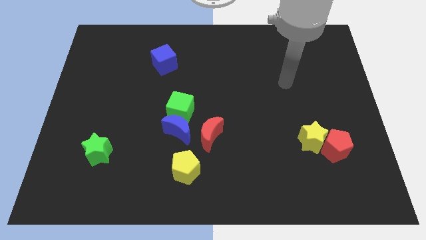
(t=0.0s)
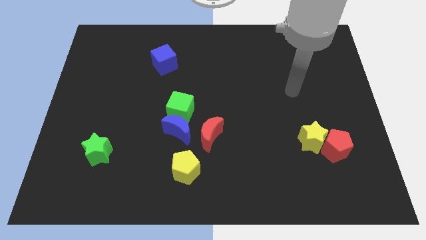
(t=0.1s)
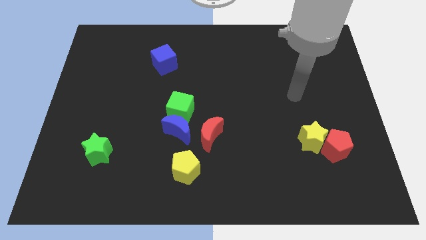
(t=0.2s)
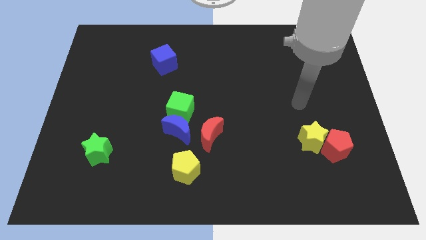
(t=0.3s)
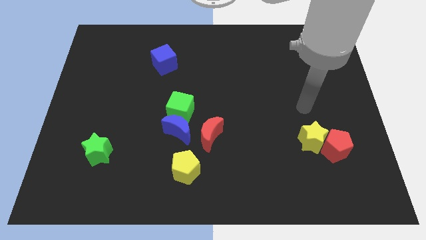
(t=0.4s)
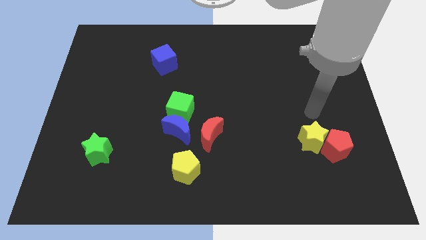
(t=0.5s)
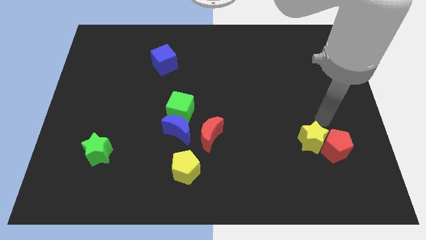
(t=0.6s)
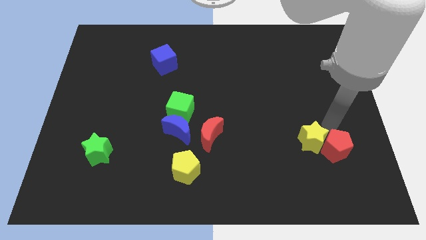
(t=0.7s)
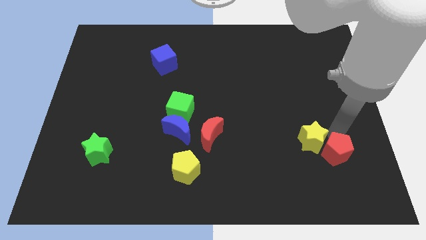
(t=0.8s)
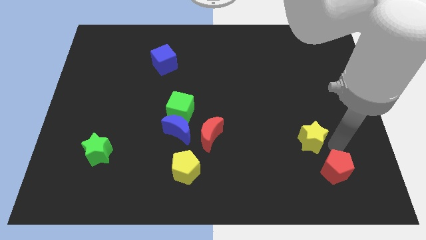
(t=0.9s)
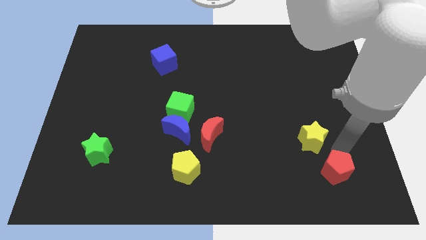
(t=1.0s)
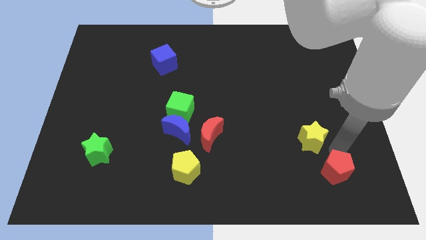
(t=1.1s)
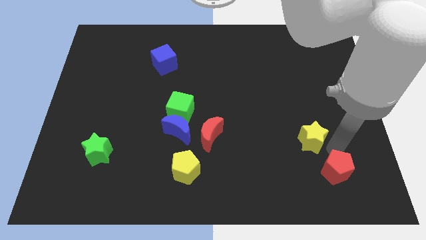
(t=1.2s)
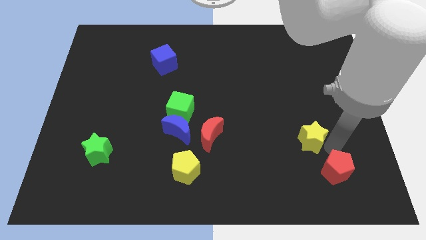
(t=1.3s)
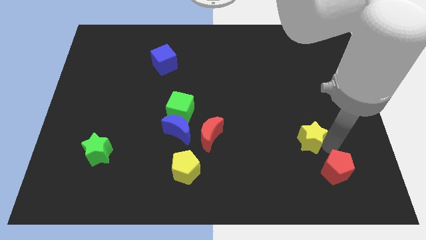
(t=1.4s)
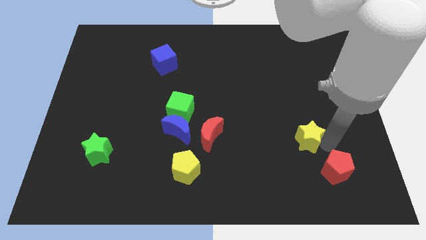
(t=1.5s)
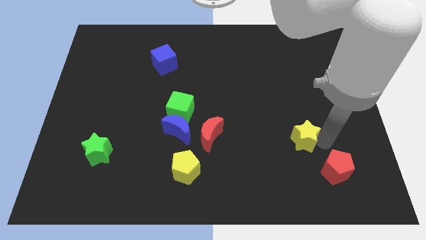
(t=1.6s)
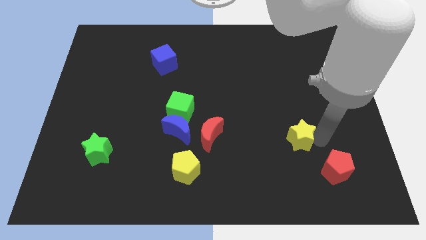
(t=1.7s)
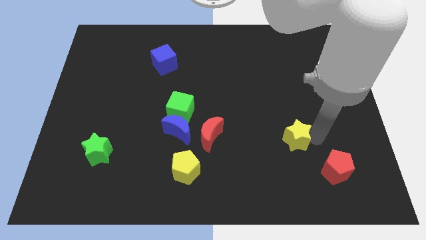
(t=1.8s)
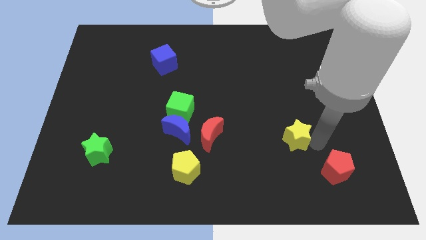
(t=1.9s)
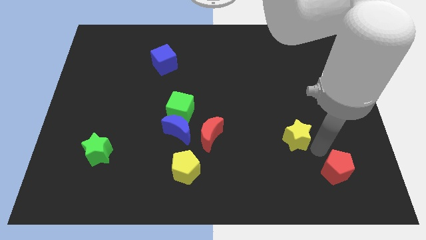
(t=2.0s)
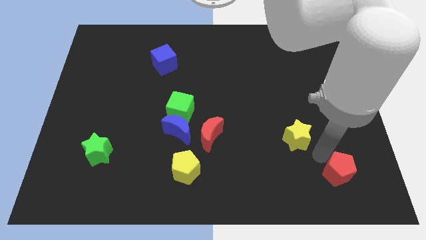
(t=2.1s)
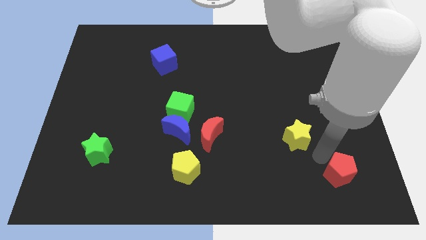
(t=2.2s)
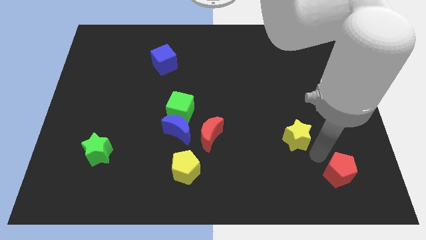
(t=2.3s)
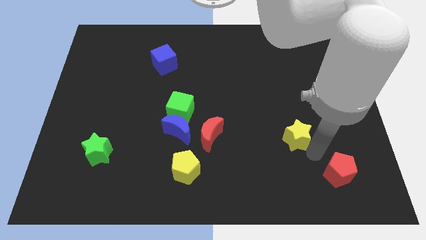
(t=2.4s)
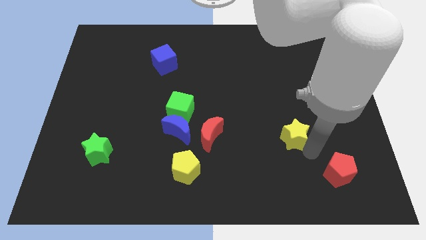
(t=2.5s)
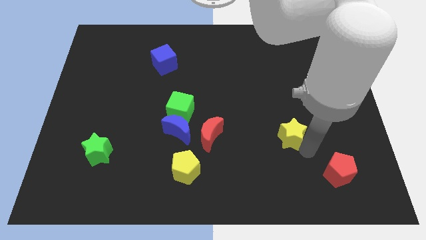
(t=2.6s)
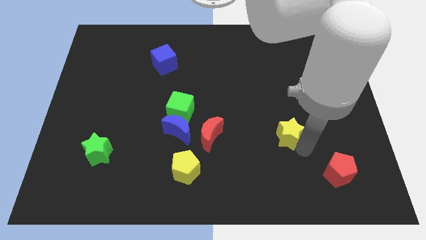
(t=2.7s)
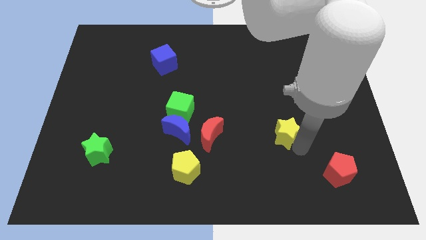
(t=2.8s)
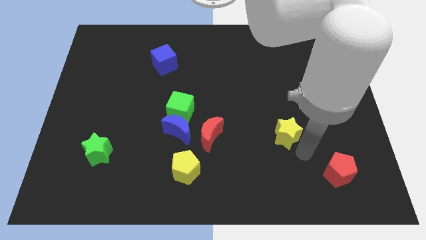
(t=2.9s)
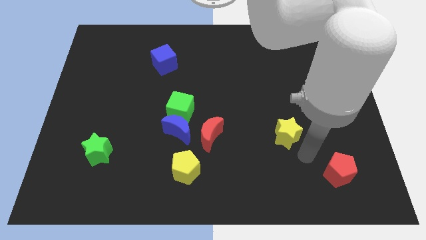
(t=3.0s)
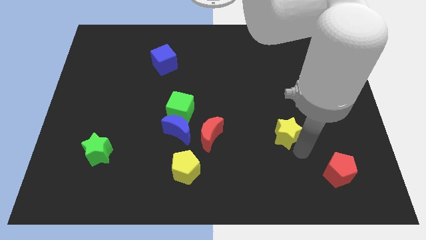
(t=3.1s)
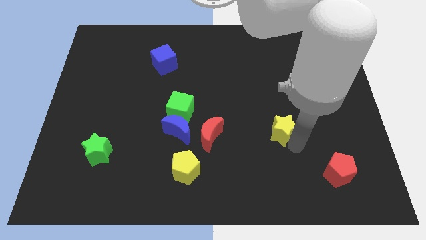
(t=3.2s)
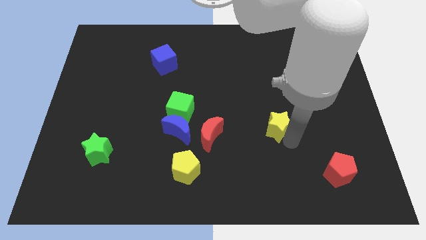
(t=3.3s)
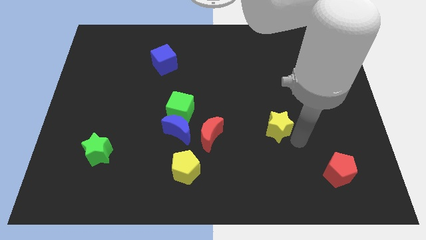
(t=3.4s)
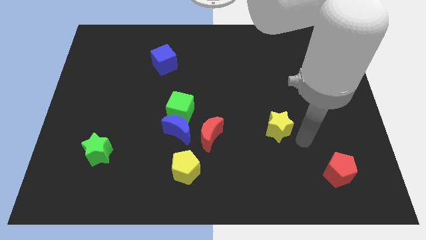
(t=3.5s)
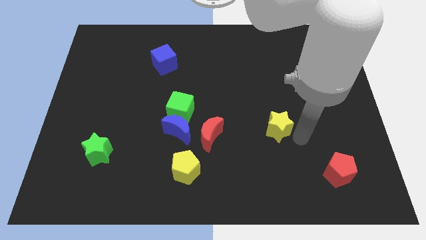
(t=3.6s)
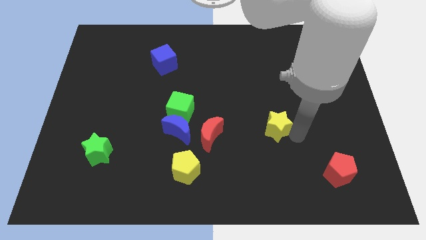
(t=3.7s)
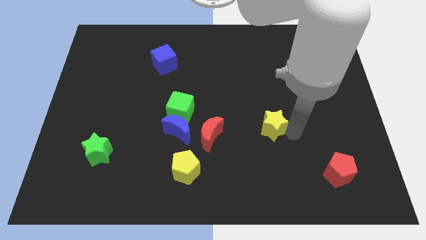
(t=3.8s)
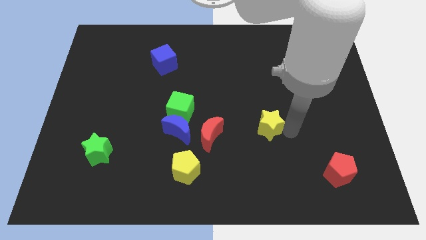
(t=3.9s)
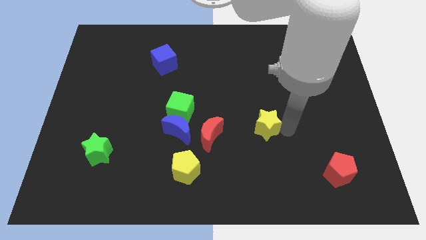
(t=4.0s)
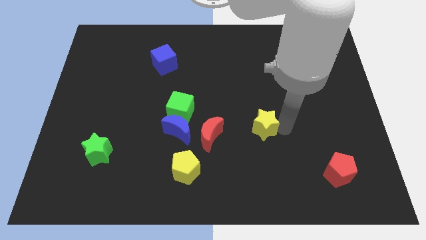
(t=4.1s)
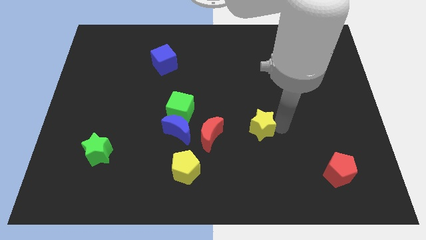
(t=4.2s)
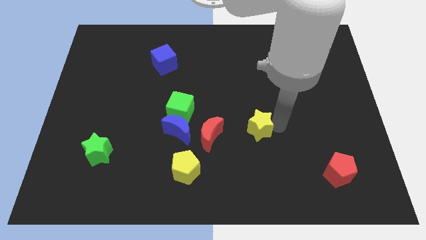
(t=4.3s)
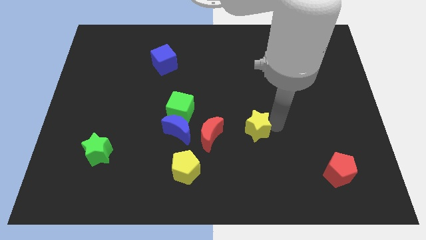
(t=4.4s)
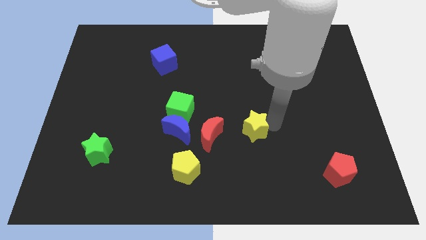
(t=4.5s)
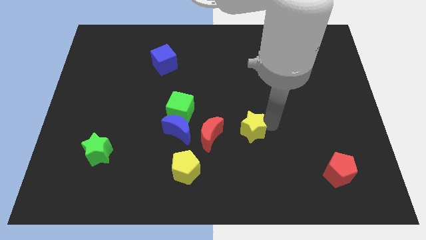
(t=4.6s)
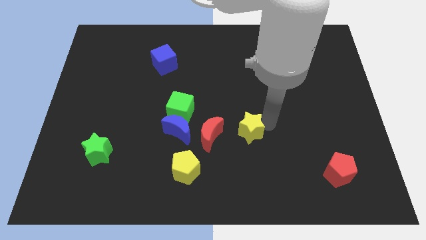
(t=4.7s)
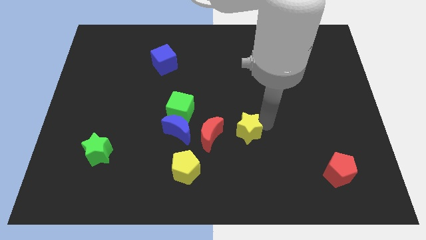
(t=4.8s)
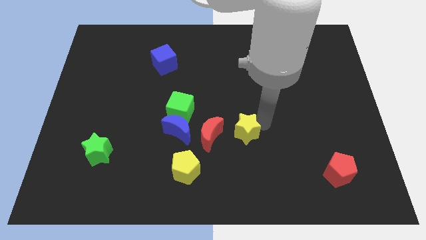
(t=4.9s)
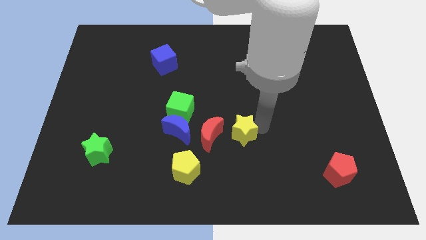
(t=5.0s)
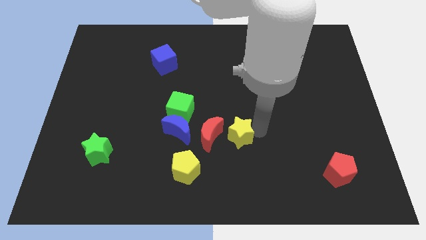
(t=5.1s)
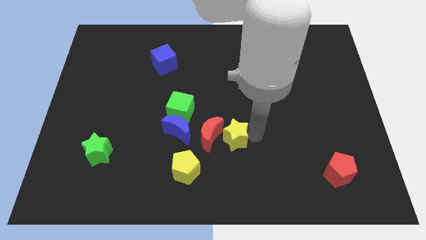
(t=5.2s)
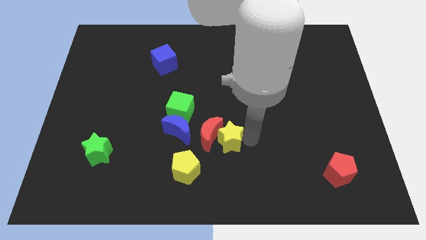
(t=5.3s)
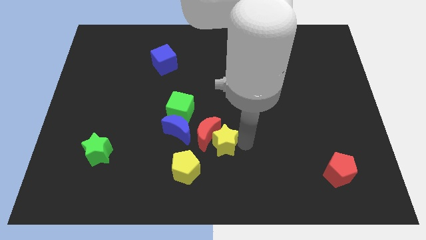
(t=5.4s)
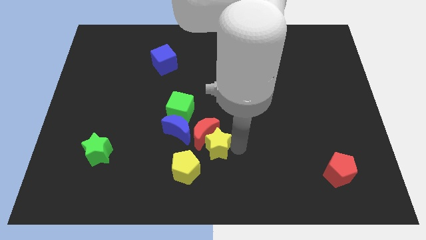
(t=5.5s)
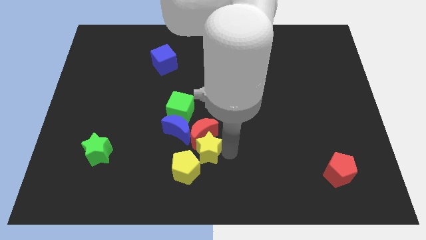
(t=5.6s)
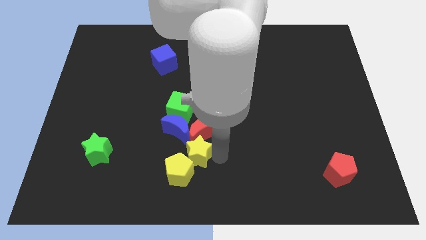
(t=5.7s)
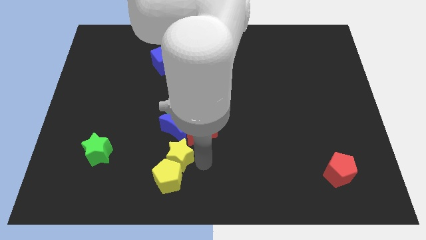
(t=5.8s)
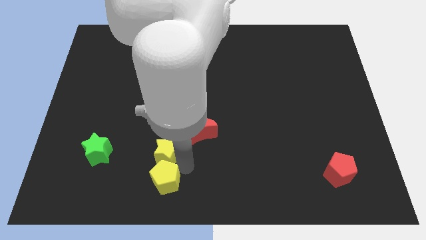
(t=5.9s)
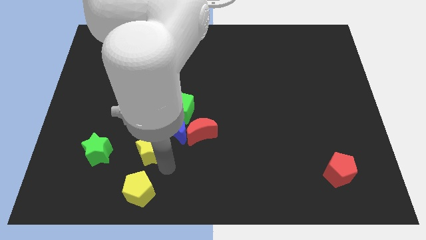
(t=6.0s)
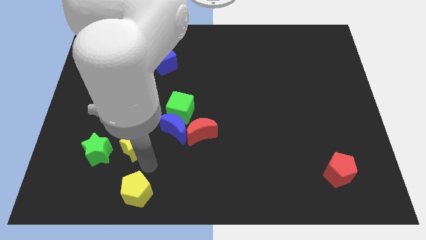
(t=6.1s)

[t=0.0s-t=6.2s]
move the yellow star diagonally up and to the right of the green star
